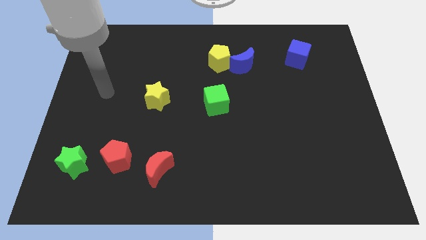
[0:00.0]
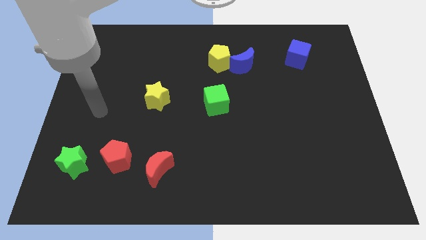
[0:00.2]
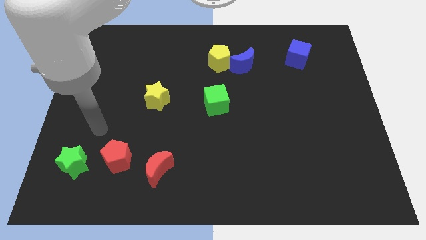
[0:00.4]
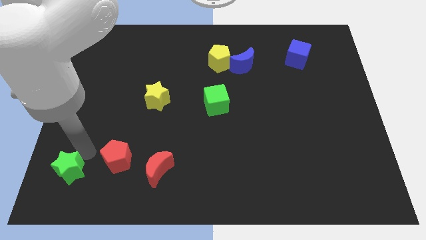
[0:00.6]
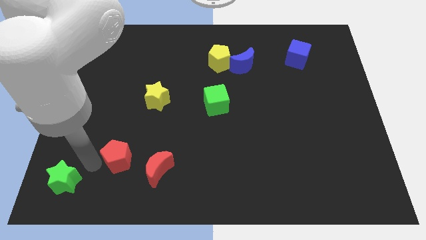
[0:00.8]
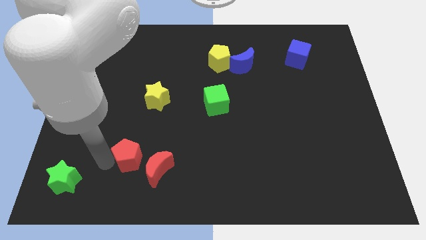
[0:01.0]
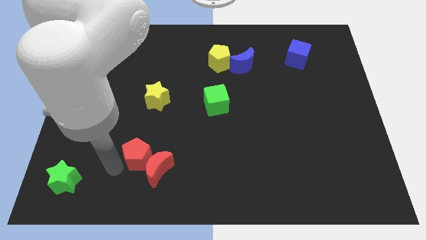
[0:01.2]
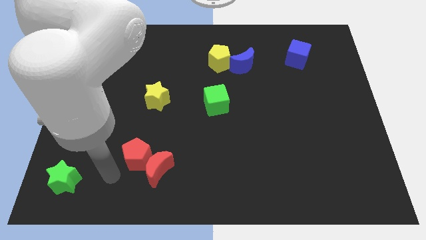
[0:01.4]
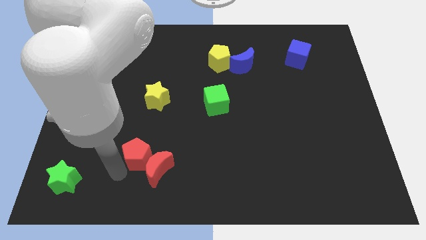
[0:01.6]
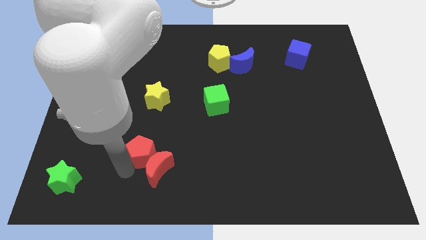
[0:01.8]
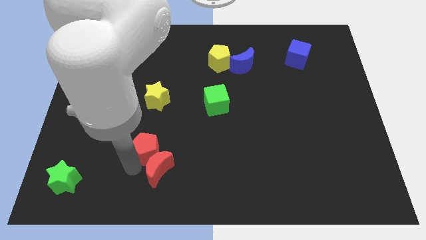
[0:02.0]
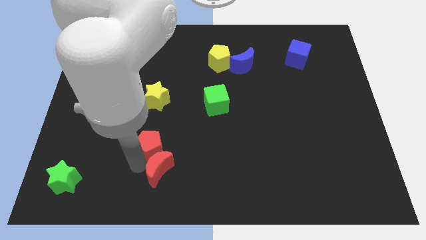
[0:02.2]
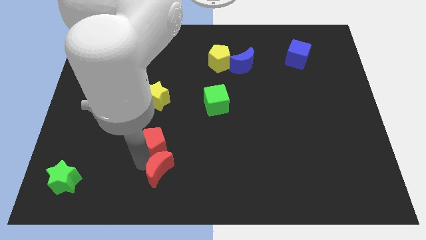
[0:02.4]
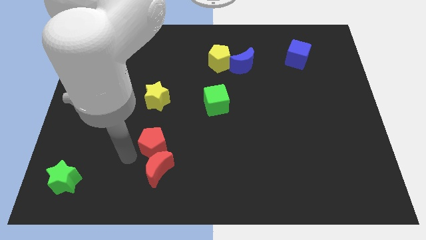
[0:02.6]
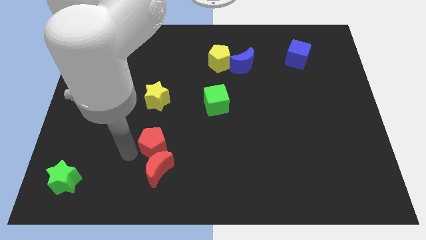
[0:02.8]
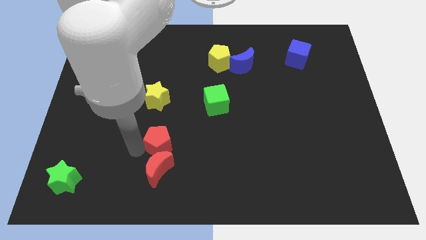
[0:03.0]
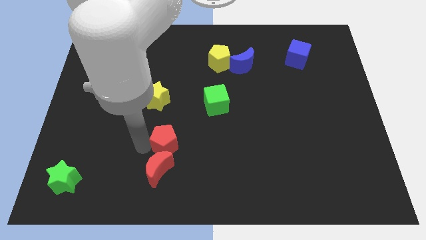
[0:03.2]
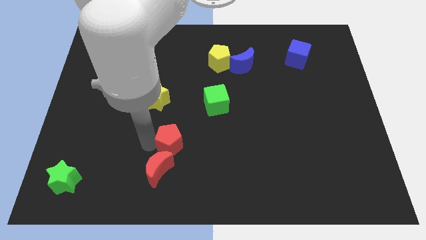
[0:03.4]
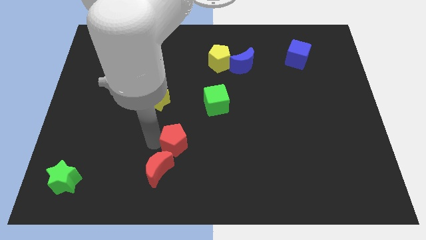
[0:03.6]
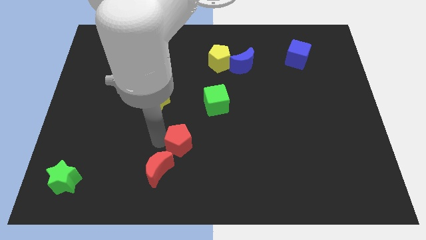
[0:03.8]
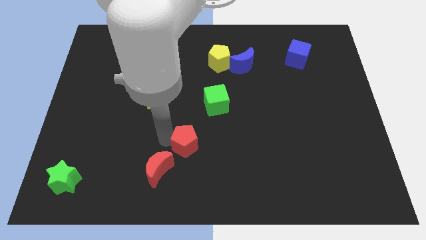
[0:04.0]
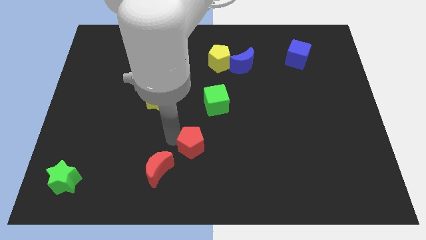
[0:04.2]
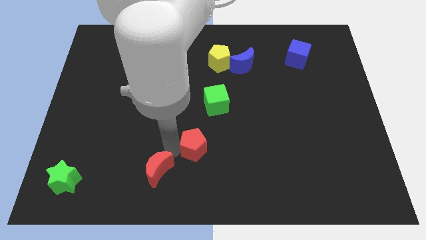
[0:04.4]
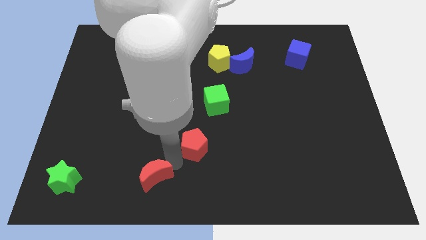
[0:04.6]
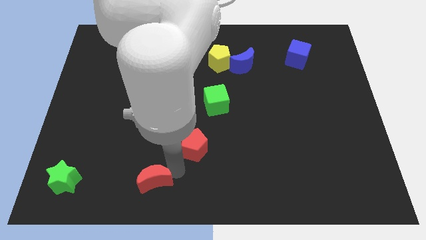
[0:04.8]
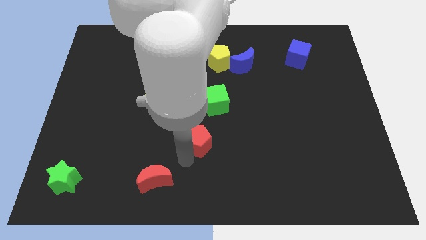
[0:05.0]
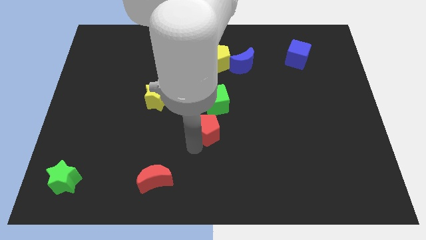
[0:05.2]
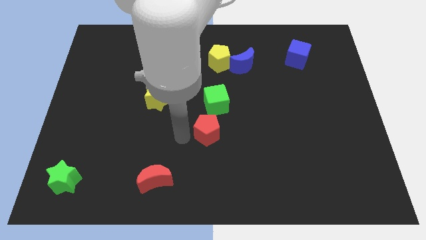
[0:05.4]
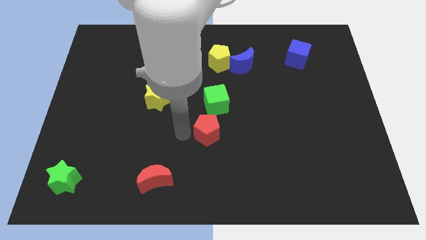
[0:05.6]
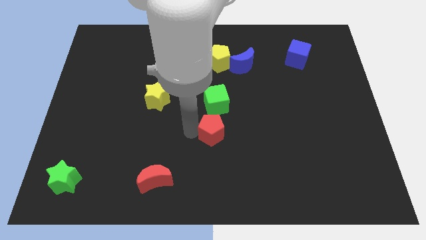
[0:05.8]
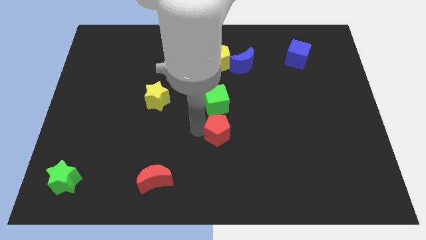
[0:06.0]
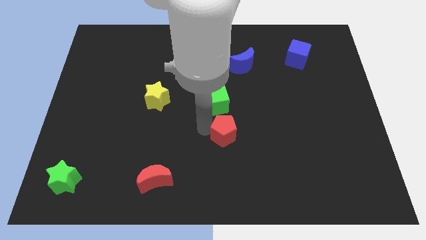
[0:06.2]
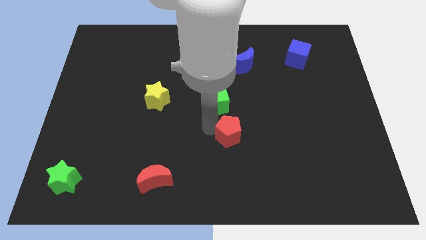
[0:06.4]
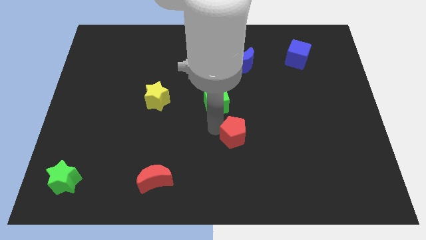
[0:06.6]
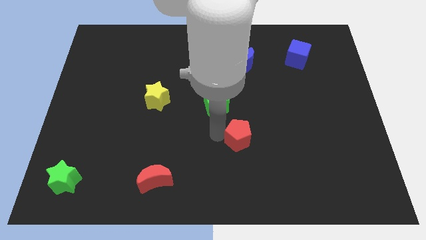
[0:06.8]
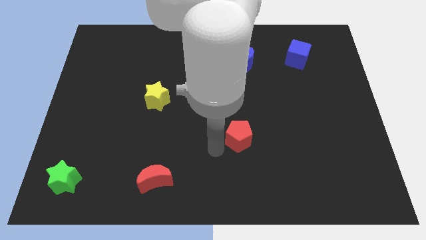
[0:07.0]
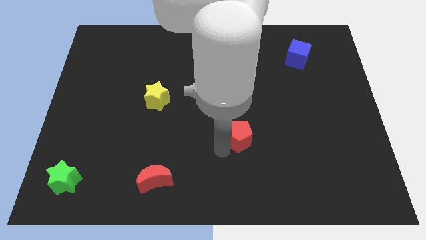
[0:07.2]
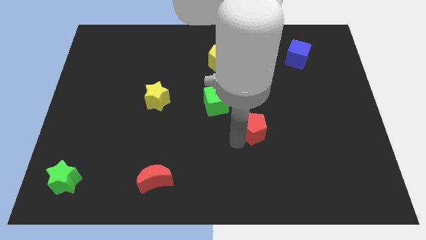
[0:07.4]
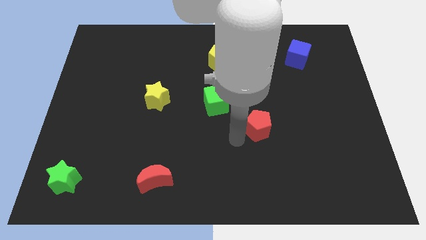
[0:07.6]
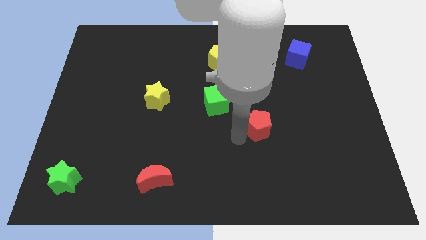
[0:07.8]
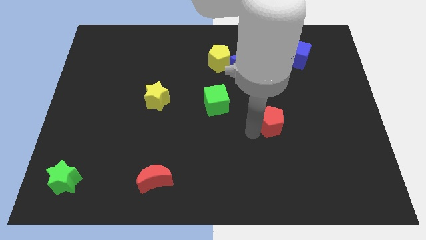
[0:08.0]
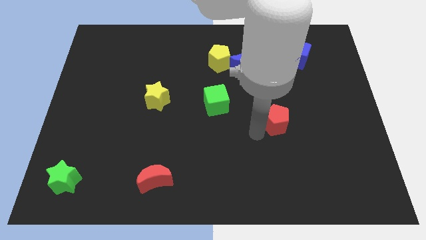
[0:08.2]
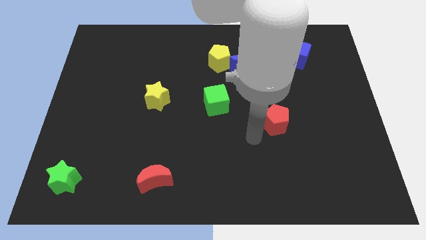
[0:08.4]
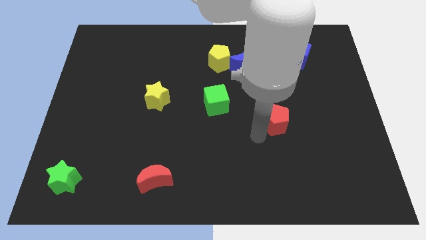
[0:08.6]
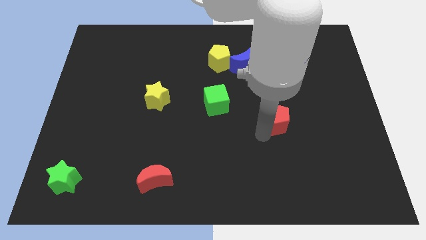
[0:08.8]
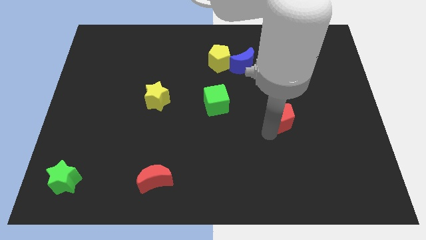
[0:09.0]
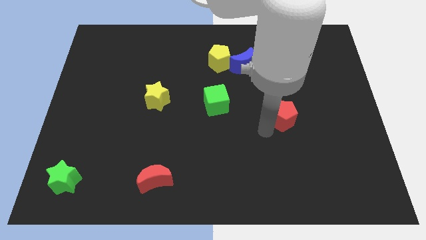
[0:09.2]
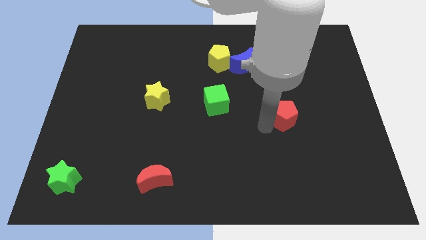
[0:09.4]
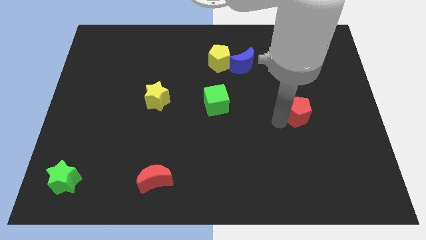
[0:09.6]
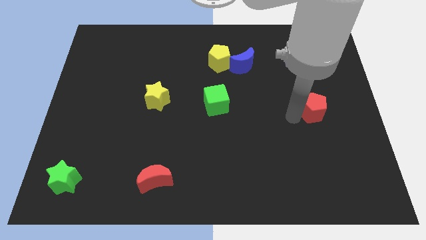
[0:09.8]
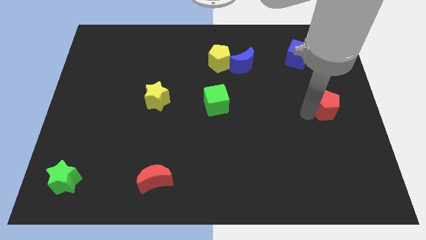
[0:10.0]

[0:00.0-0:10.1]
move the red pentagon to the right side
